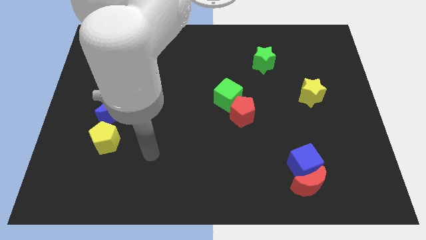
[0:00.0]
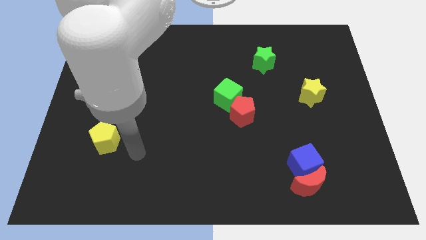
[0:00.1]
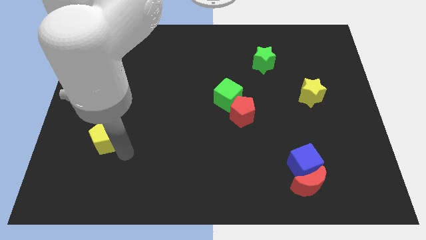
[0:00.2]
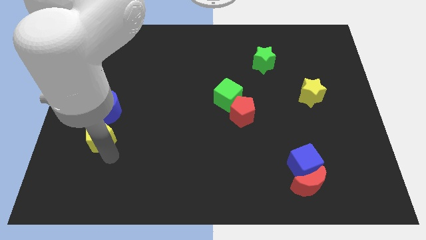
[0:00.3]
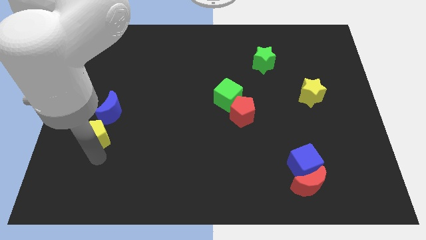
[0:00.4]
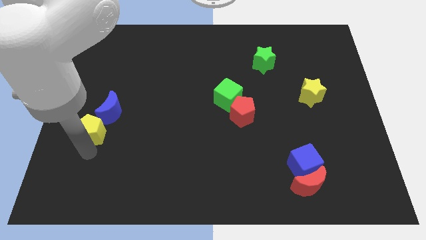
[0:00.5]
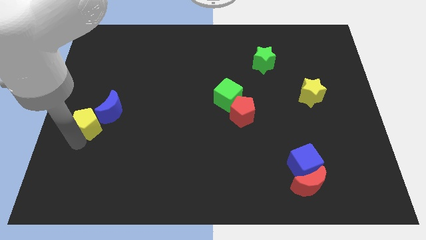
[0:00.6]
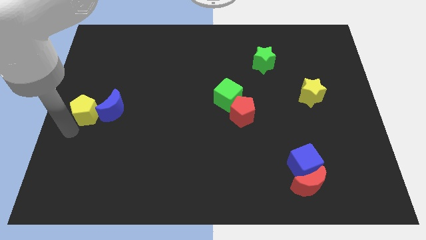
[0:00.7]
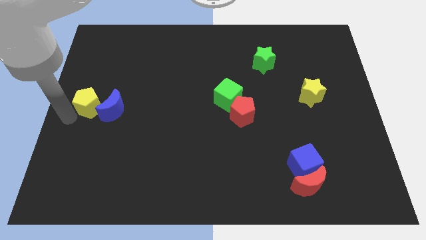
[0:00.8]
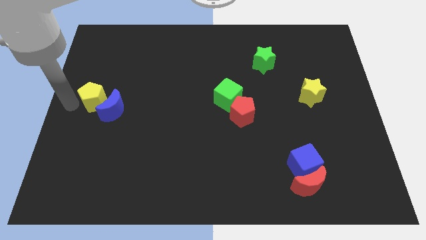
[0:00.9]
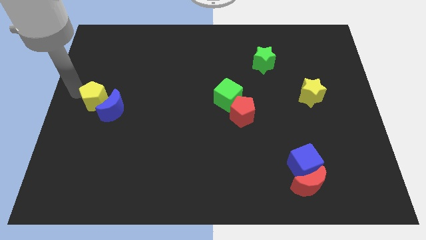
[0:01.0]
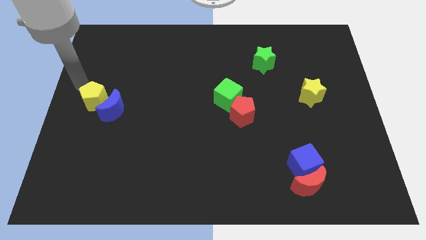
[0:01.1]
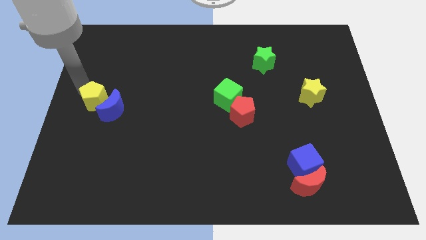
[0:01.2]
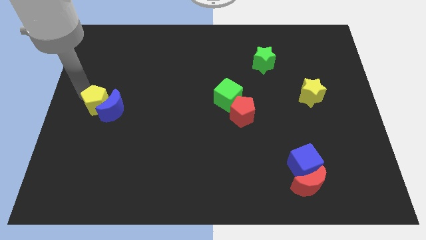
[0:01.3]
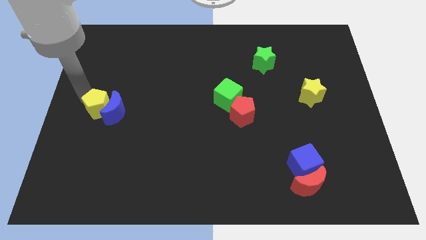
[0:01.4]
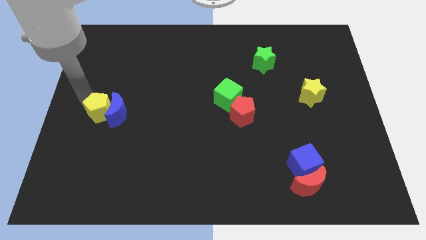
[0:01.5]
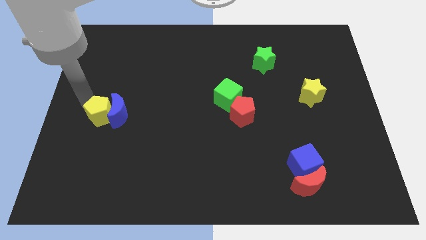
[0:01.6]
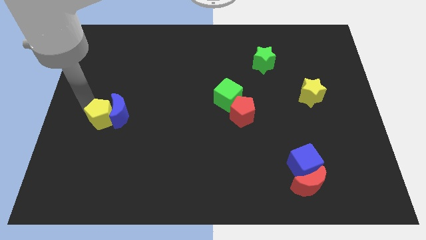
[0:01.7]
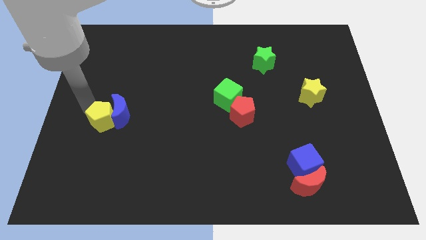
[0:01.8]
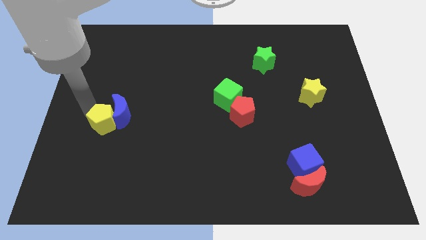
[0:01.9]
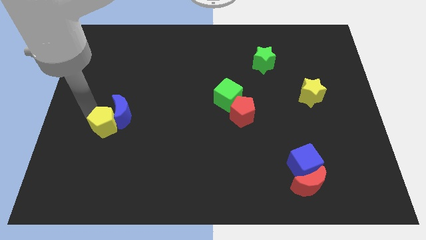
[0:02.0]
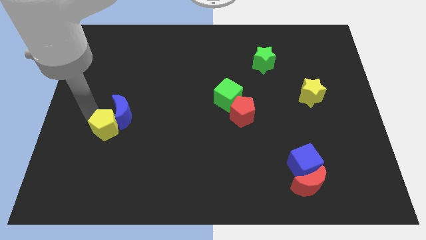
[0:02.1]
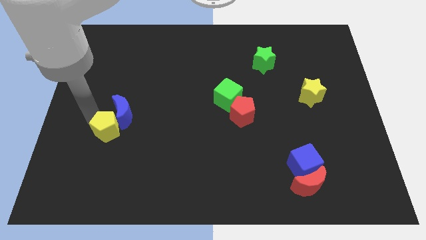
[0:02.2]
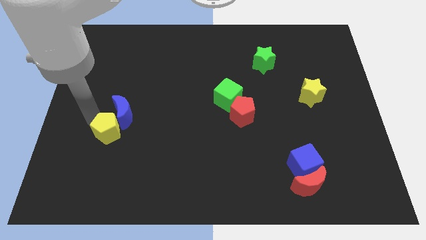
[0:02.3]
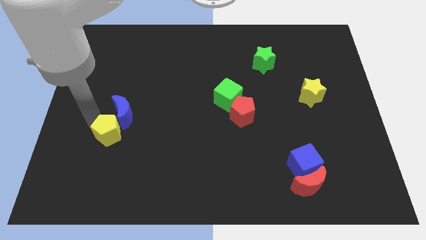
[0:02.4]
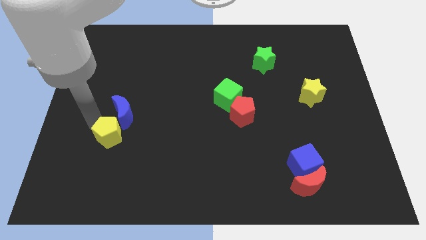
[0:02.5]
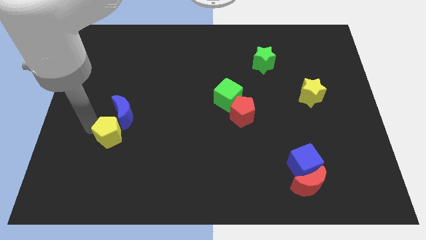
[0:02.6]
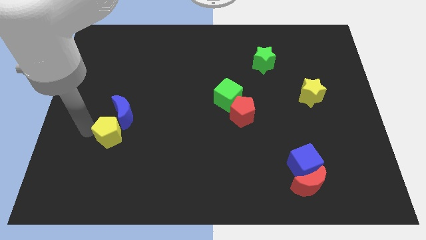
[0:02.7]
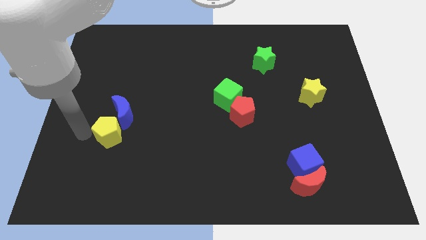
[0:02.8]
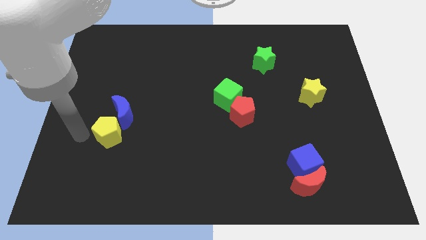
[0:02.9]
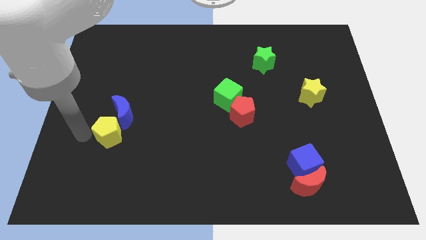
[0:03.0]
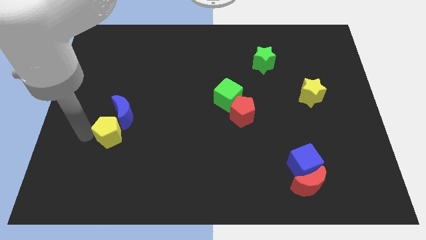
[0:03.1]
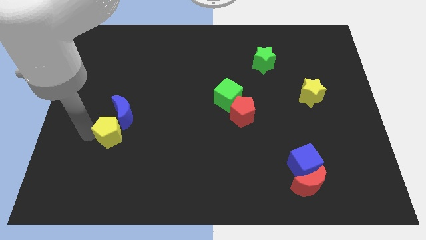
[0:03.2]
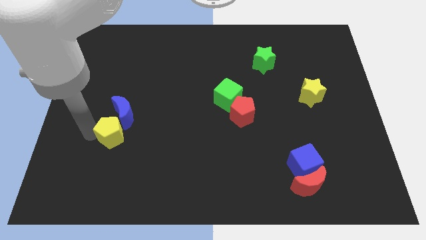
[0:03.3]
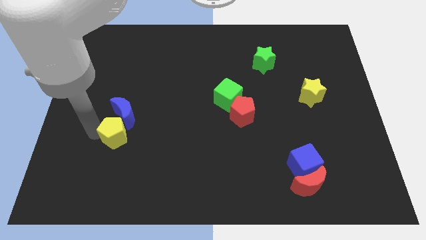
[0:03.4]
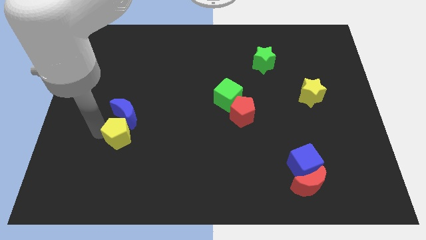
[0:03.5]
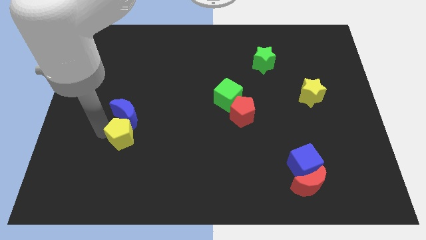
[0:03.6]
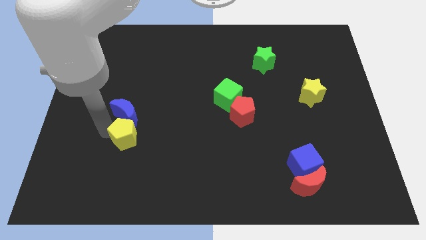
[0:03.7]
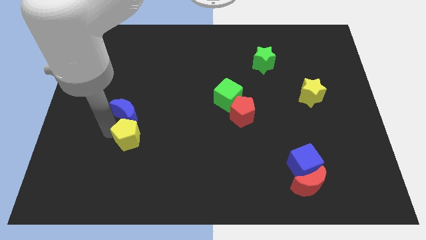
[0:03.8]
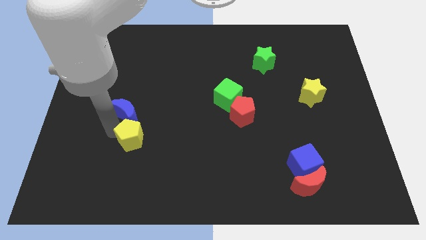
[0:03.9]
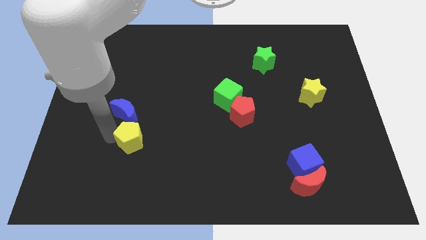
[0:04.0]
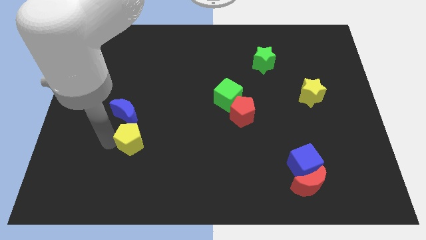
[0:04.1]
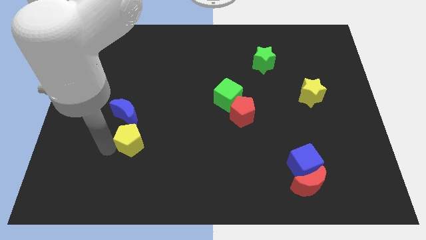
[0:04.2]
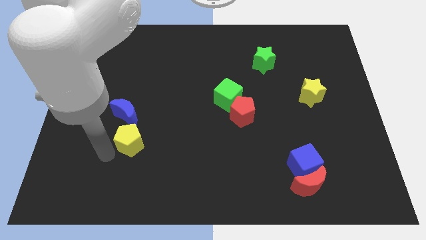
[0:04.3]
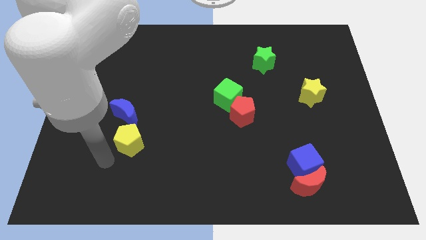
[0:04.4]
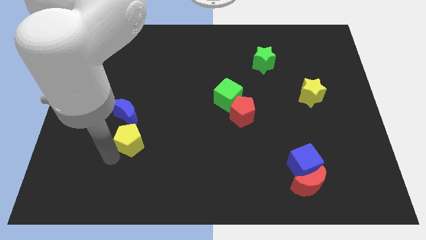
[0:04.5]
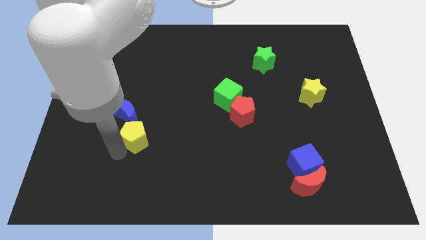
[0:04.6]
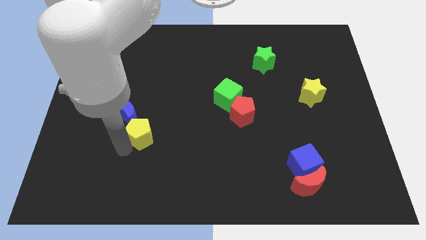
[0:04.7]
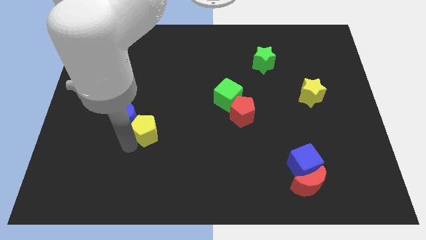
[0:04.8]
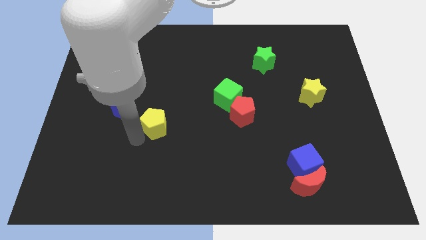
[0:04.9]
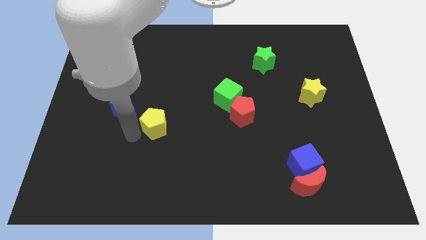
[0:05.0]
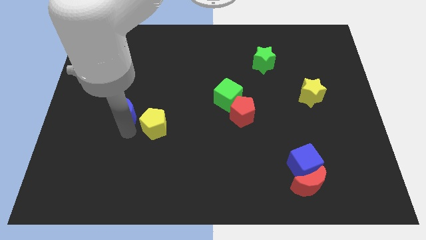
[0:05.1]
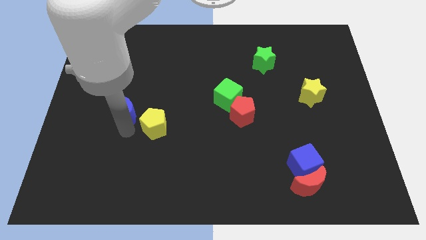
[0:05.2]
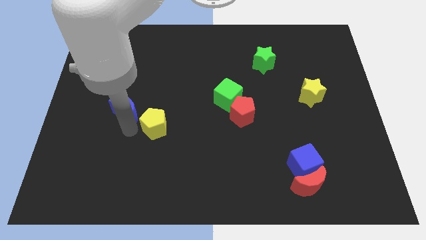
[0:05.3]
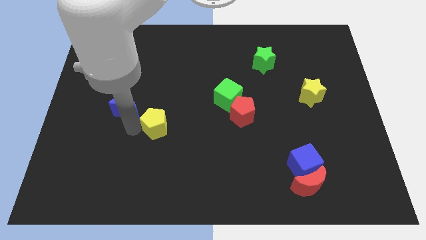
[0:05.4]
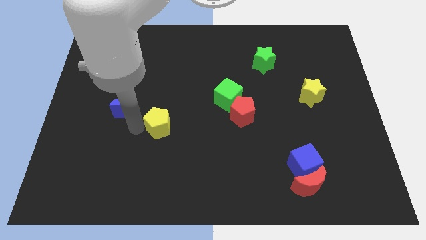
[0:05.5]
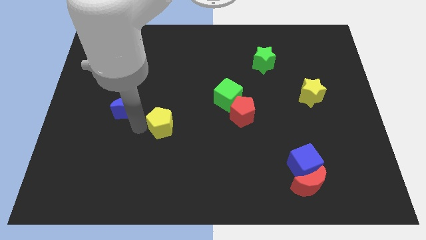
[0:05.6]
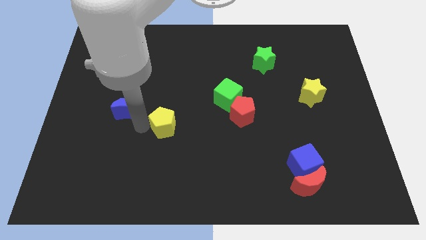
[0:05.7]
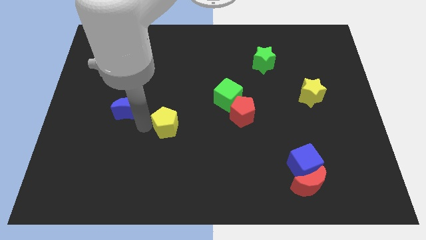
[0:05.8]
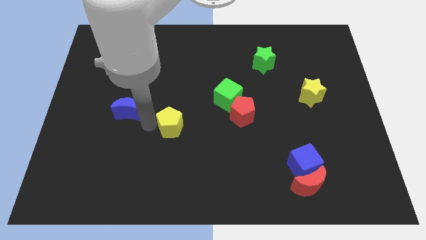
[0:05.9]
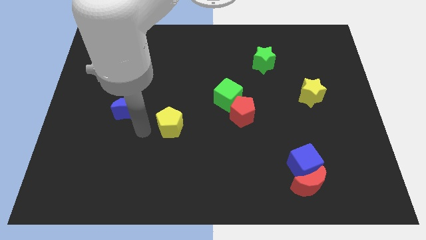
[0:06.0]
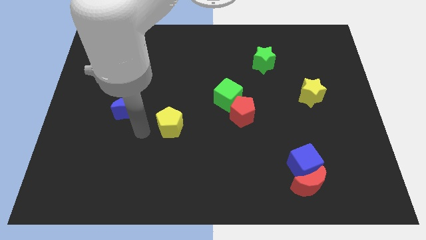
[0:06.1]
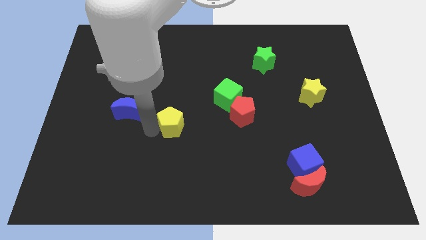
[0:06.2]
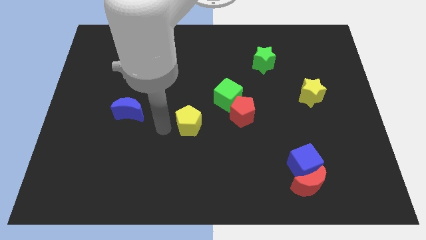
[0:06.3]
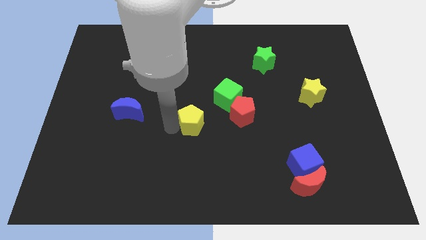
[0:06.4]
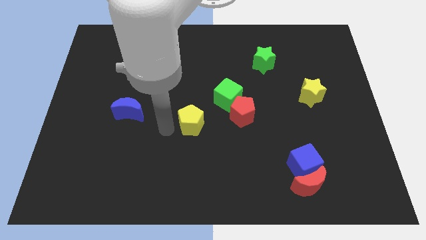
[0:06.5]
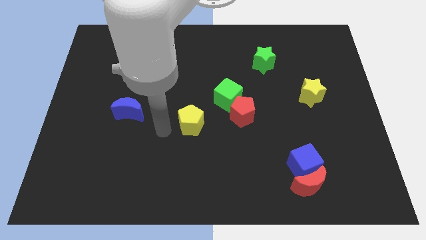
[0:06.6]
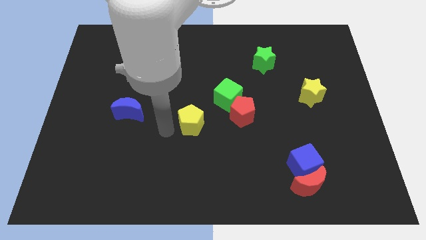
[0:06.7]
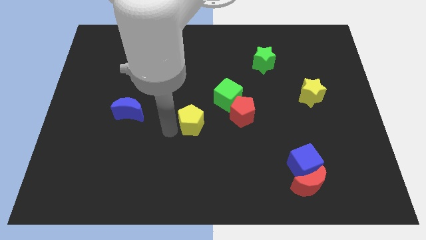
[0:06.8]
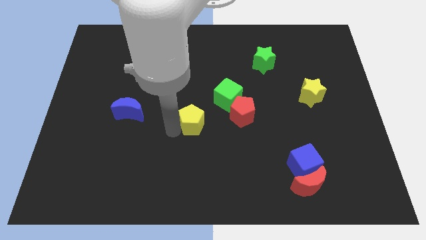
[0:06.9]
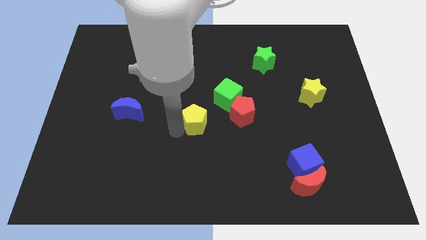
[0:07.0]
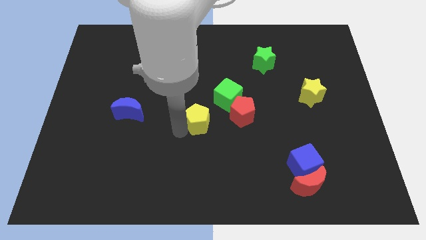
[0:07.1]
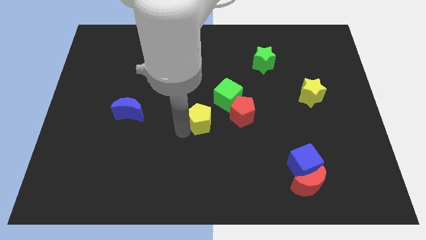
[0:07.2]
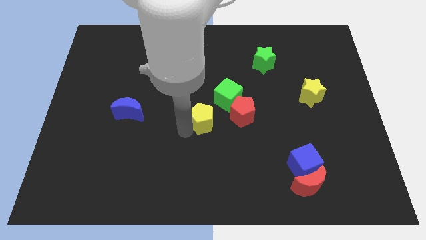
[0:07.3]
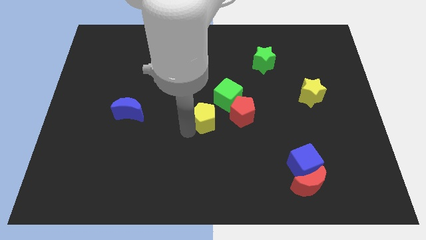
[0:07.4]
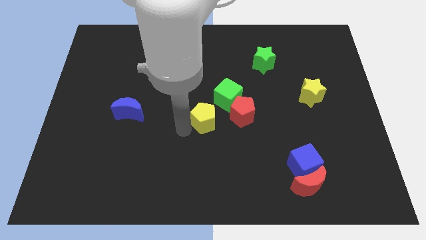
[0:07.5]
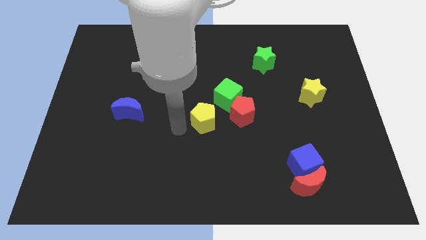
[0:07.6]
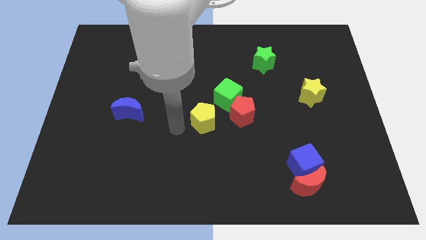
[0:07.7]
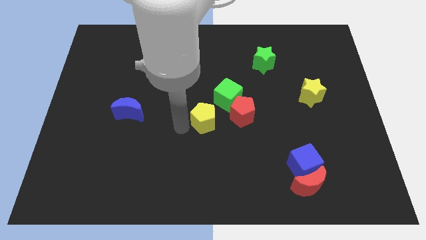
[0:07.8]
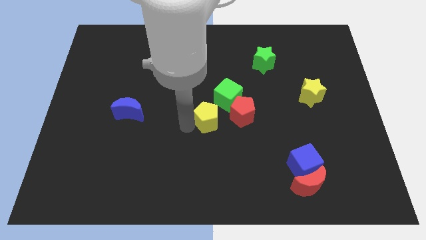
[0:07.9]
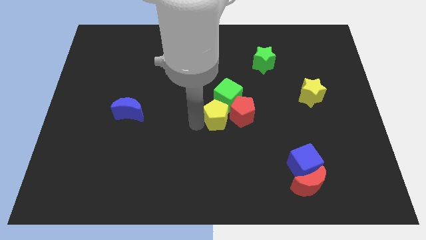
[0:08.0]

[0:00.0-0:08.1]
slide the yellow pentagon towards the red pentagon
